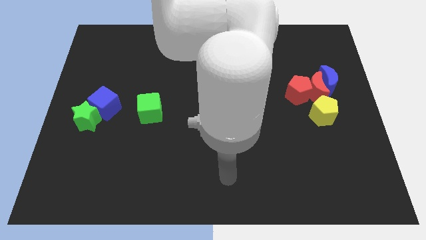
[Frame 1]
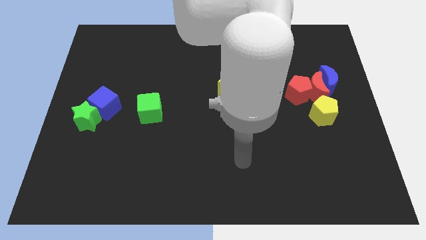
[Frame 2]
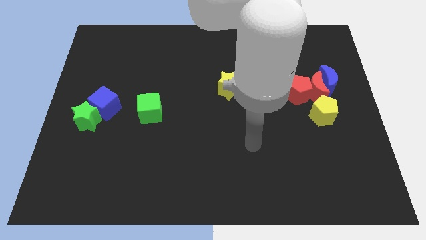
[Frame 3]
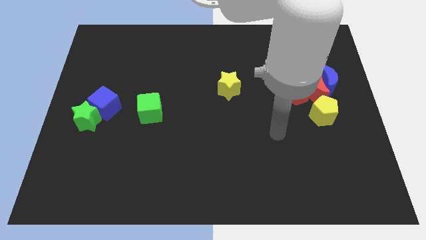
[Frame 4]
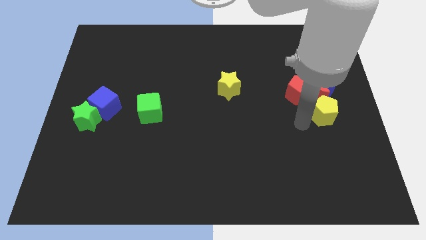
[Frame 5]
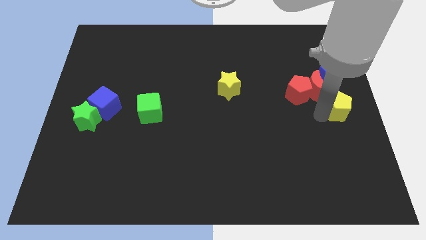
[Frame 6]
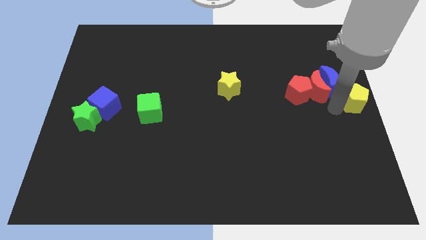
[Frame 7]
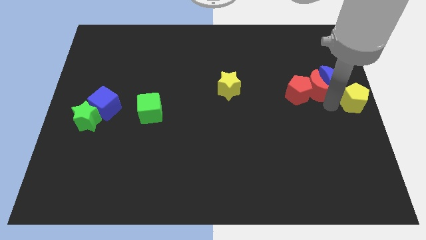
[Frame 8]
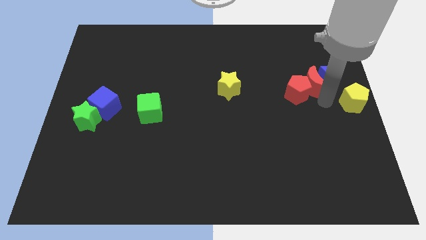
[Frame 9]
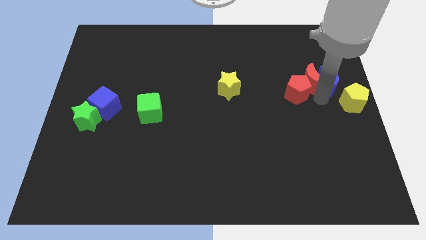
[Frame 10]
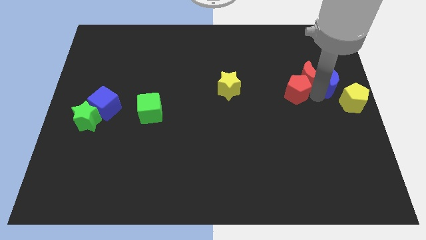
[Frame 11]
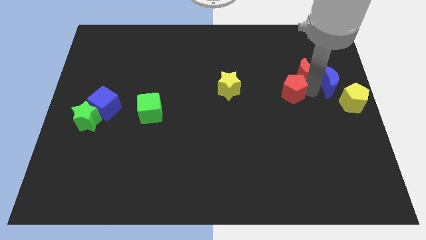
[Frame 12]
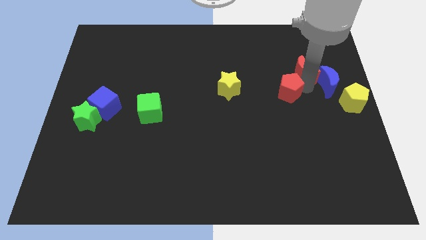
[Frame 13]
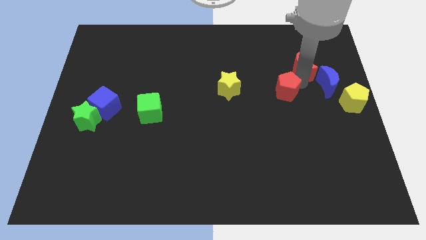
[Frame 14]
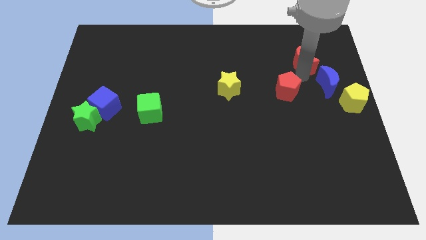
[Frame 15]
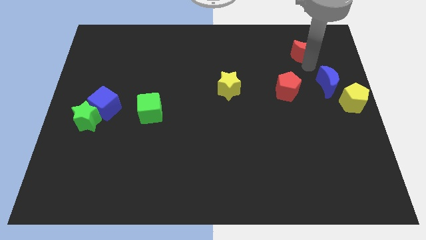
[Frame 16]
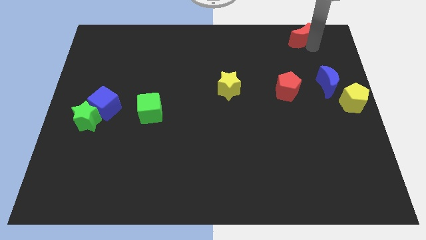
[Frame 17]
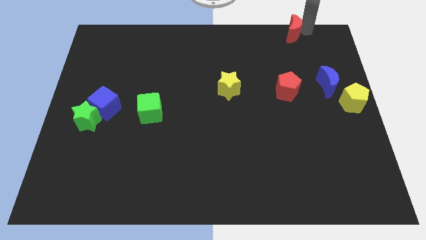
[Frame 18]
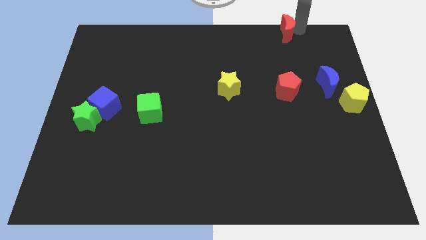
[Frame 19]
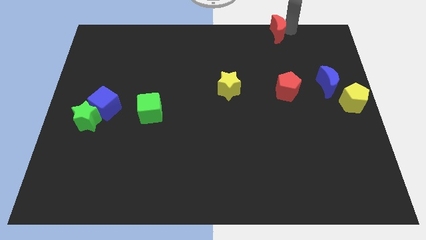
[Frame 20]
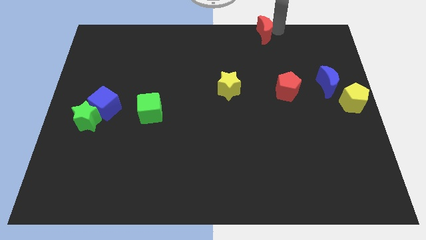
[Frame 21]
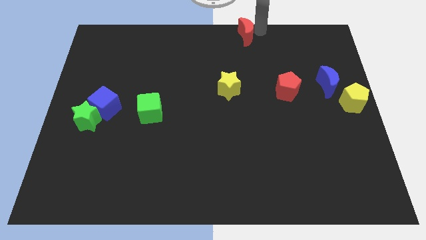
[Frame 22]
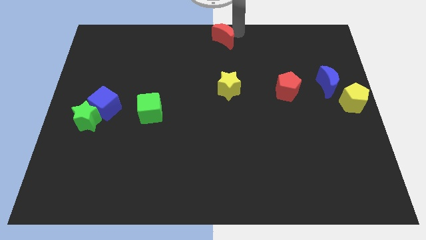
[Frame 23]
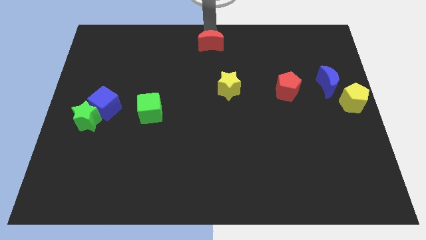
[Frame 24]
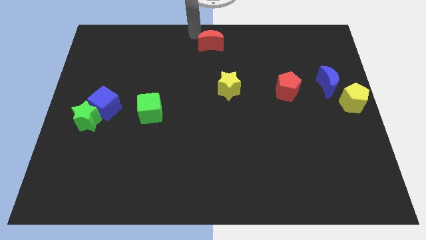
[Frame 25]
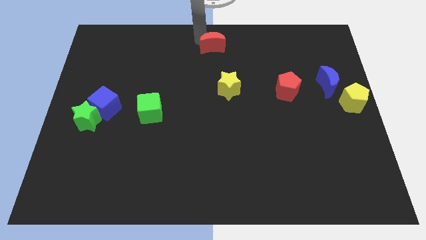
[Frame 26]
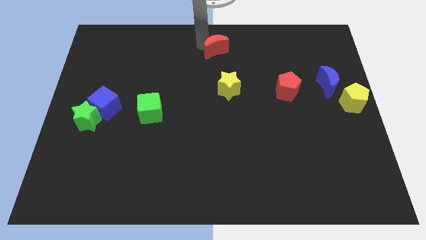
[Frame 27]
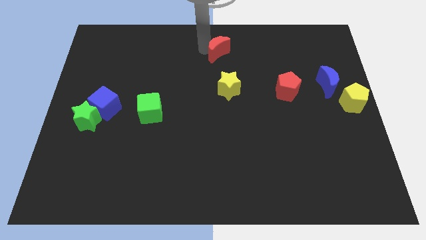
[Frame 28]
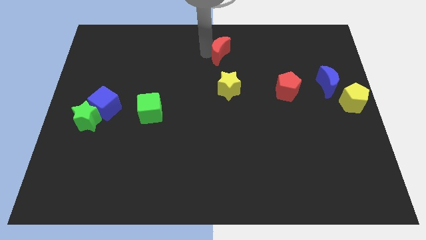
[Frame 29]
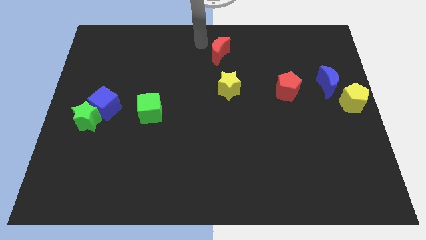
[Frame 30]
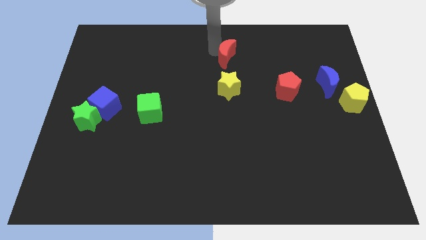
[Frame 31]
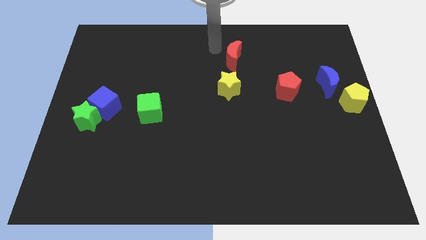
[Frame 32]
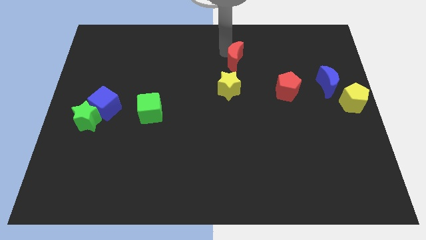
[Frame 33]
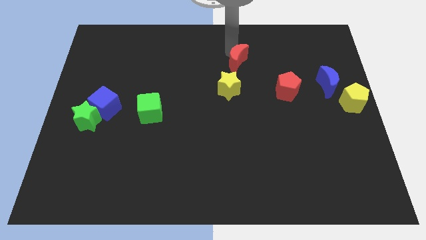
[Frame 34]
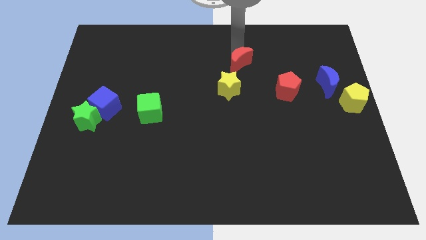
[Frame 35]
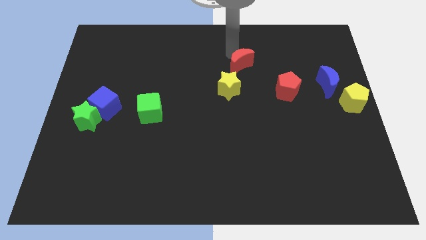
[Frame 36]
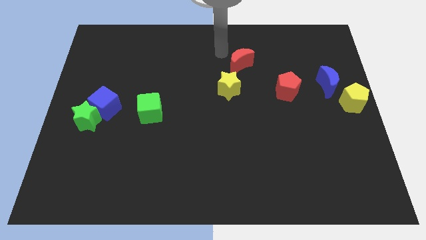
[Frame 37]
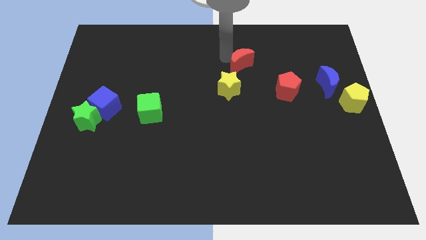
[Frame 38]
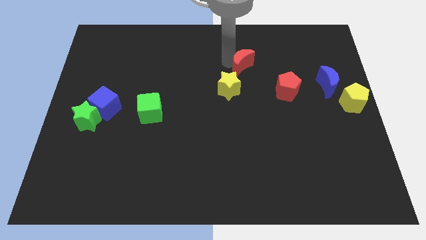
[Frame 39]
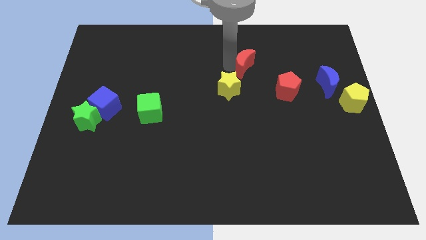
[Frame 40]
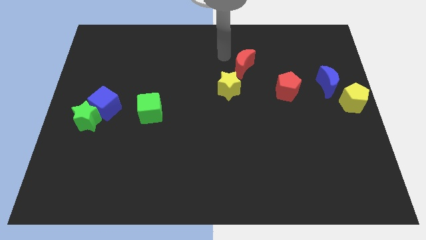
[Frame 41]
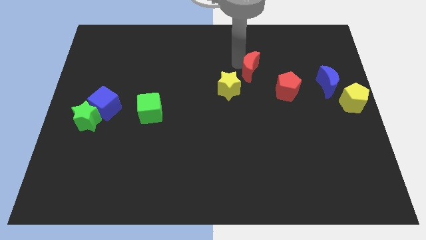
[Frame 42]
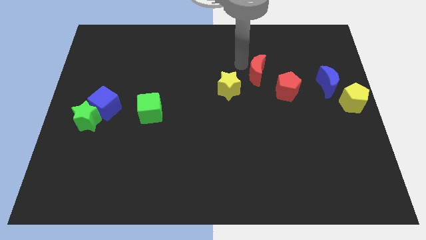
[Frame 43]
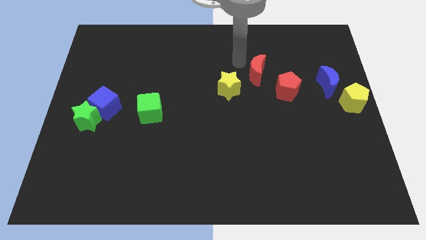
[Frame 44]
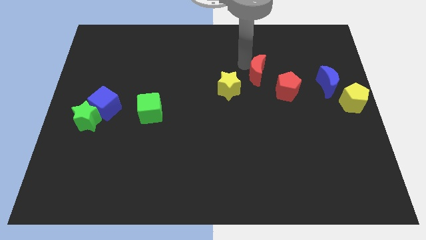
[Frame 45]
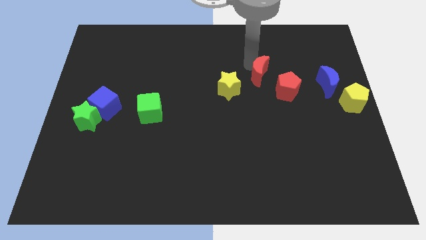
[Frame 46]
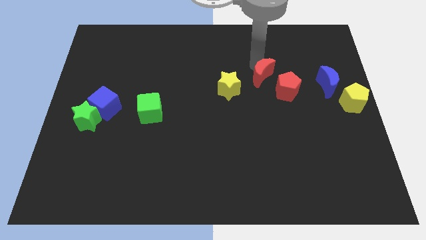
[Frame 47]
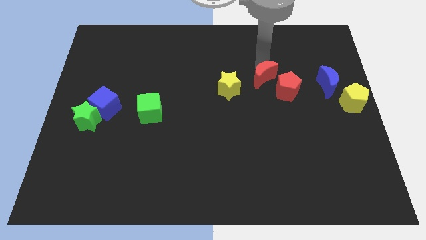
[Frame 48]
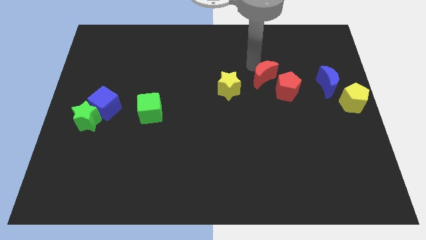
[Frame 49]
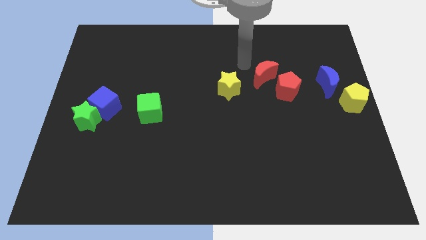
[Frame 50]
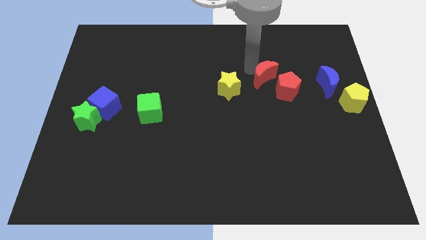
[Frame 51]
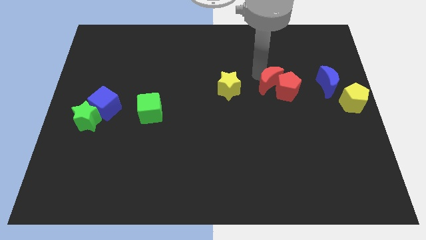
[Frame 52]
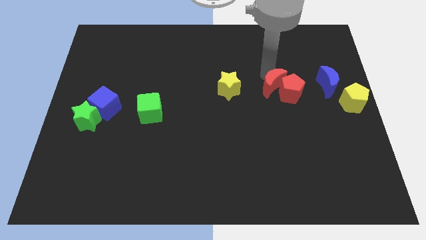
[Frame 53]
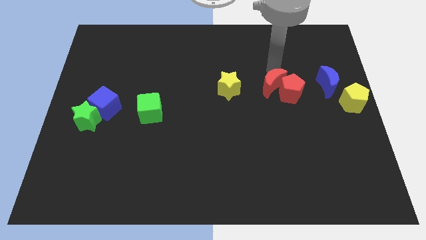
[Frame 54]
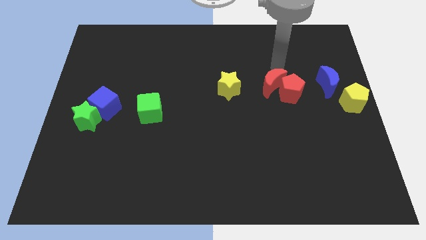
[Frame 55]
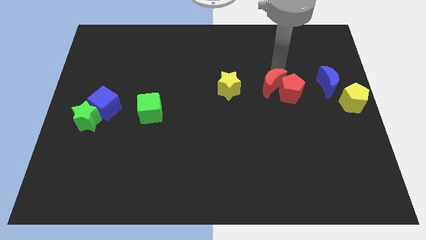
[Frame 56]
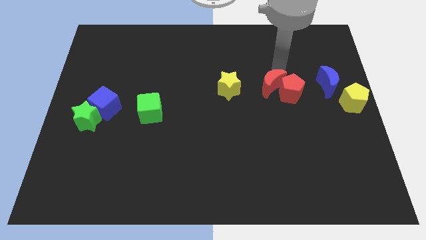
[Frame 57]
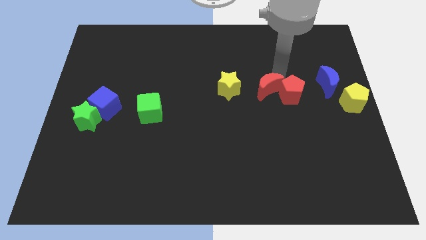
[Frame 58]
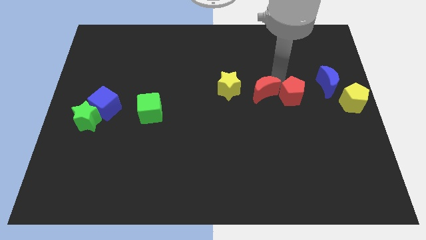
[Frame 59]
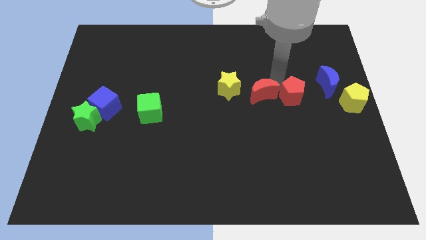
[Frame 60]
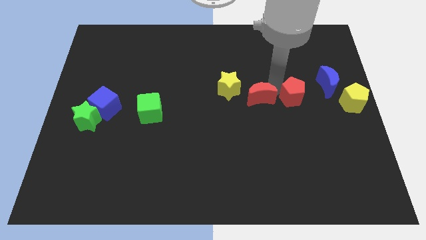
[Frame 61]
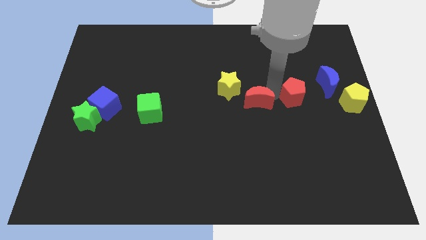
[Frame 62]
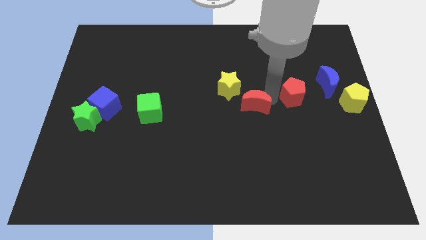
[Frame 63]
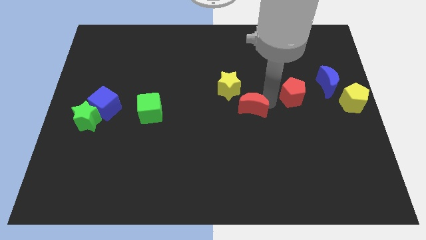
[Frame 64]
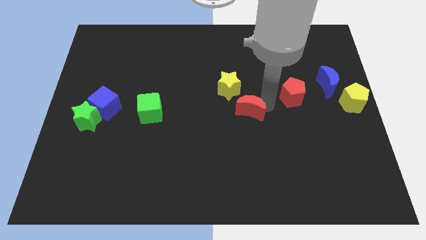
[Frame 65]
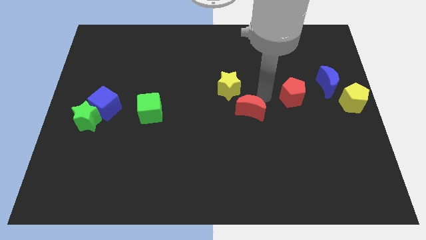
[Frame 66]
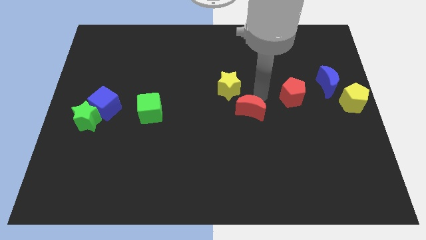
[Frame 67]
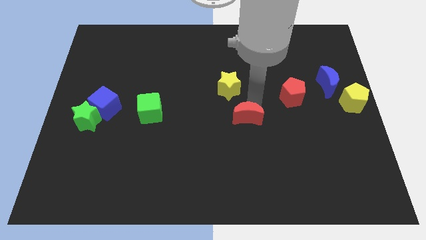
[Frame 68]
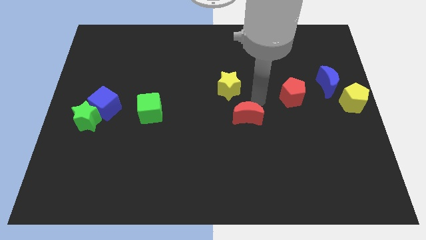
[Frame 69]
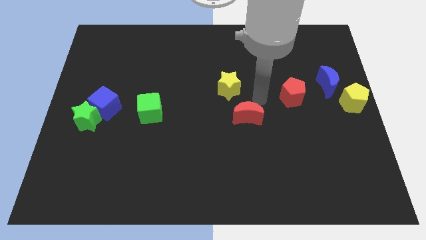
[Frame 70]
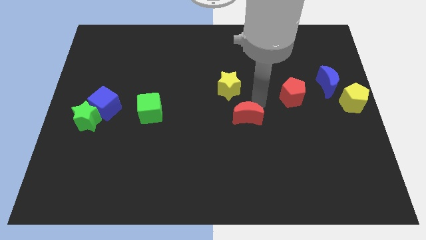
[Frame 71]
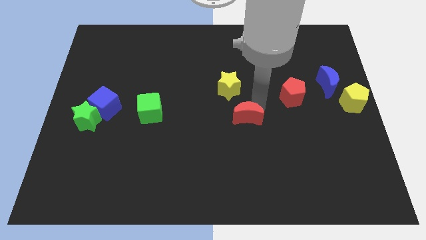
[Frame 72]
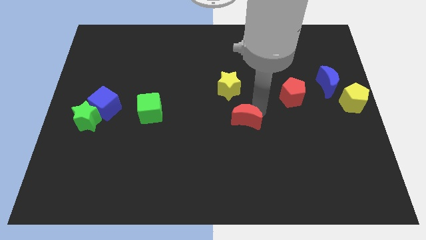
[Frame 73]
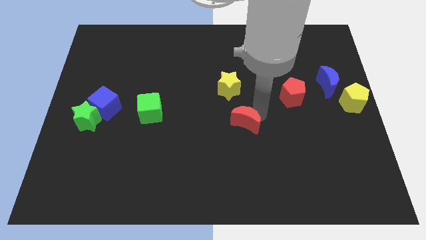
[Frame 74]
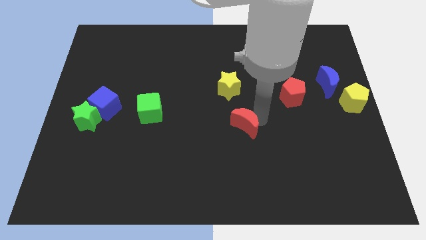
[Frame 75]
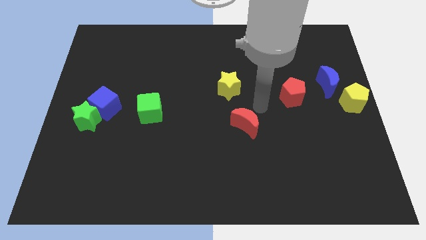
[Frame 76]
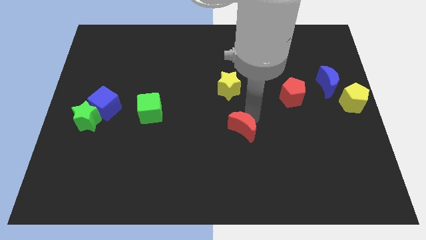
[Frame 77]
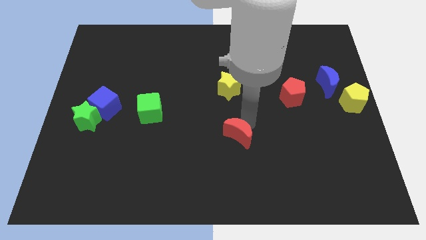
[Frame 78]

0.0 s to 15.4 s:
move the red moon down and left

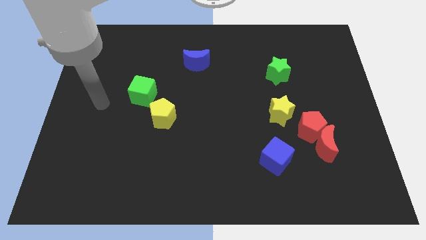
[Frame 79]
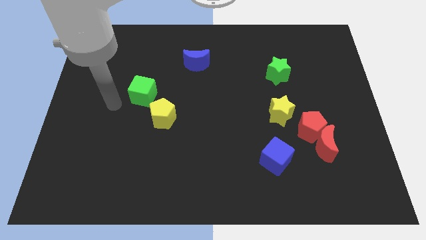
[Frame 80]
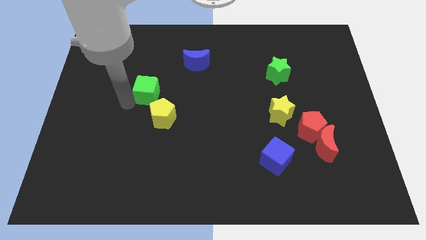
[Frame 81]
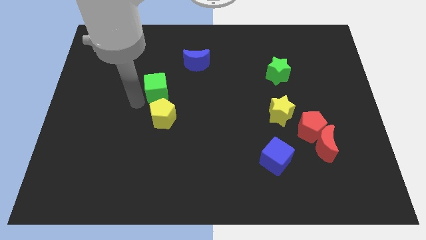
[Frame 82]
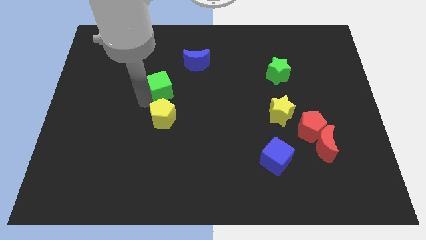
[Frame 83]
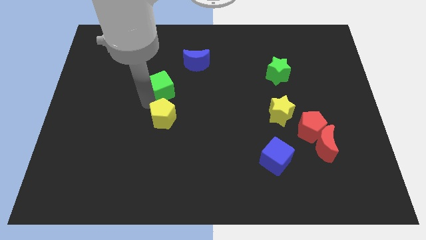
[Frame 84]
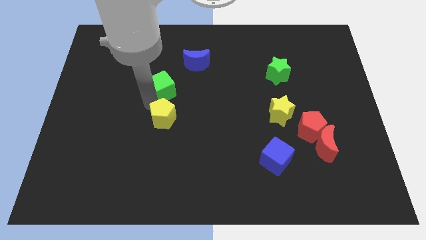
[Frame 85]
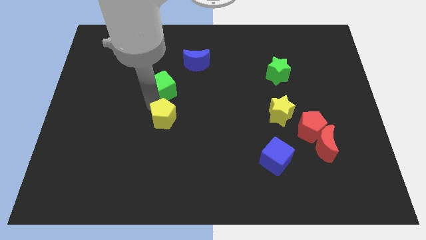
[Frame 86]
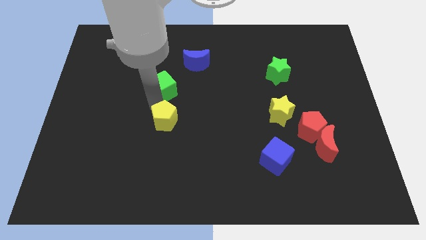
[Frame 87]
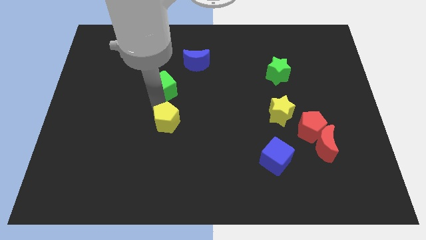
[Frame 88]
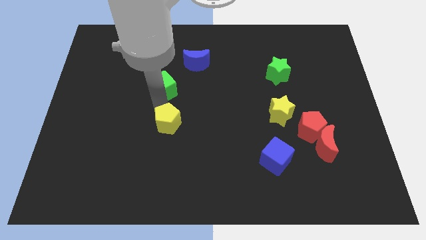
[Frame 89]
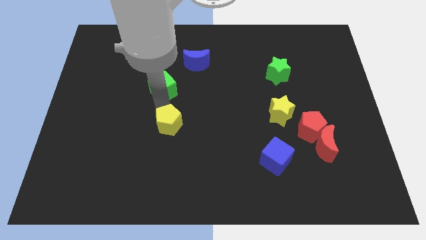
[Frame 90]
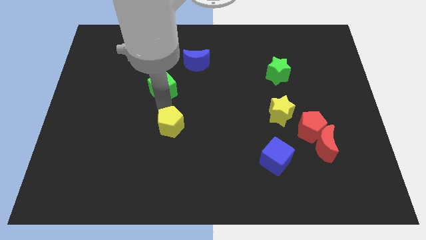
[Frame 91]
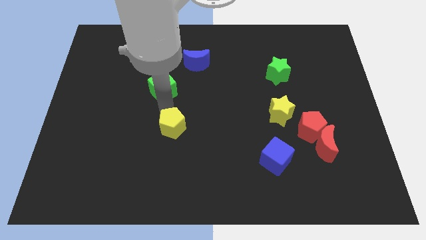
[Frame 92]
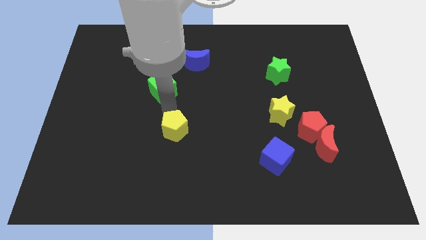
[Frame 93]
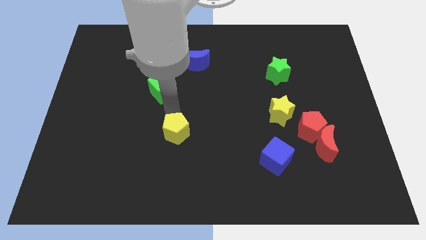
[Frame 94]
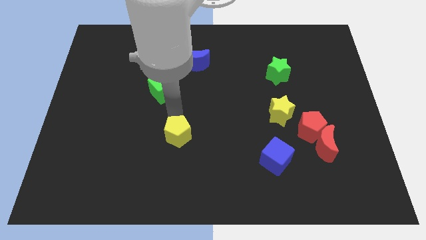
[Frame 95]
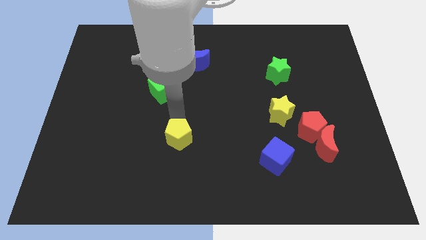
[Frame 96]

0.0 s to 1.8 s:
move the yellow pentagon a little down and to the right
